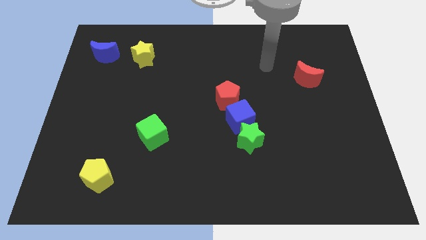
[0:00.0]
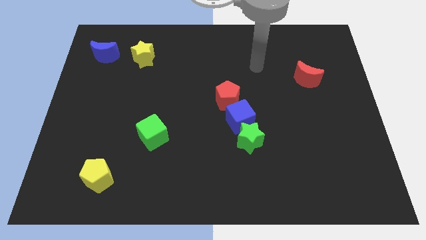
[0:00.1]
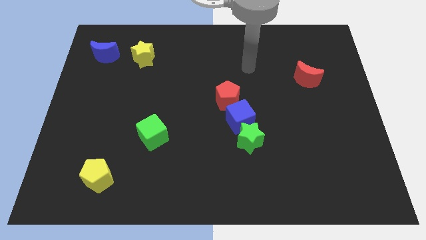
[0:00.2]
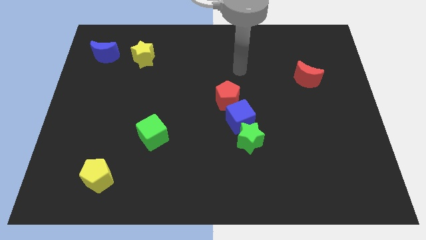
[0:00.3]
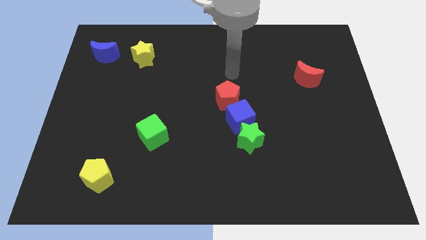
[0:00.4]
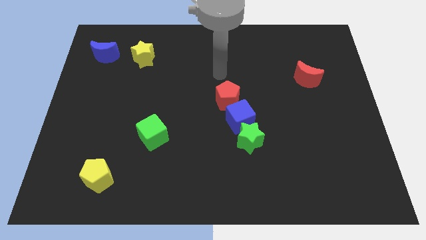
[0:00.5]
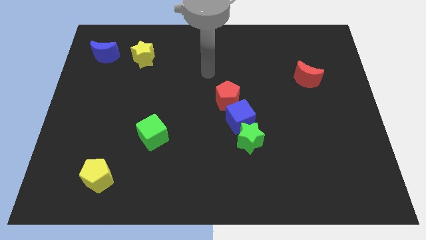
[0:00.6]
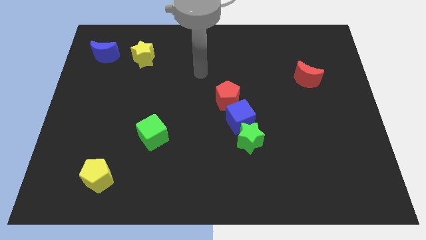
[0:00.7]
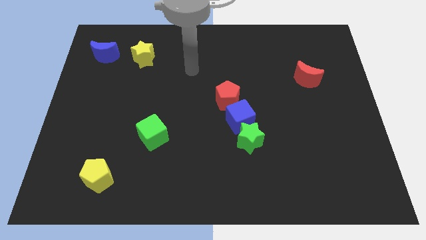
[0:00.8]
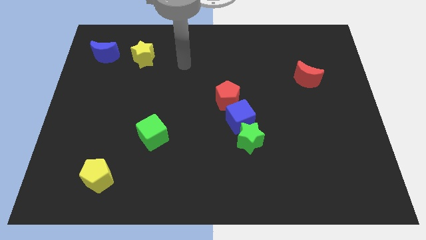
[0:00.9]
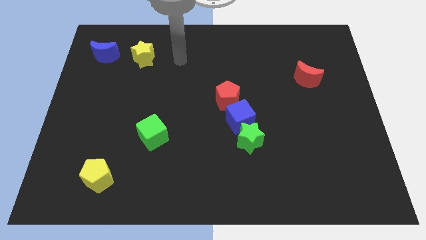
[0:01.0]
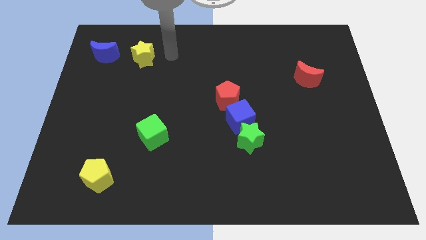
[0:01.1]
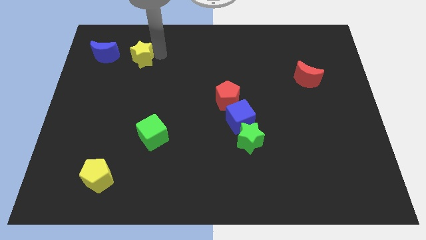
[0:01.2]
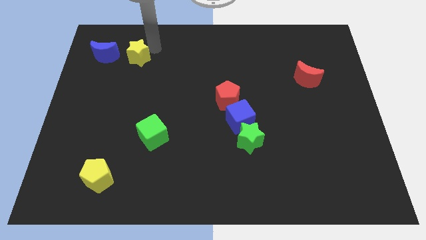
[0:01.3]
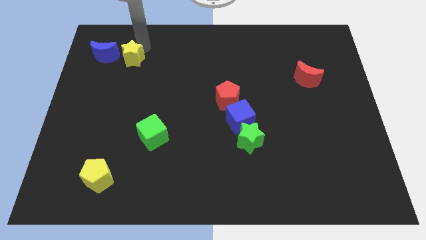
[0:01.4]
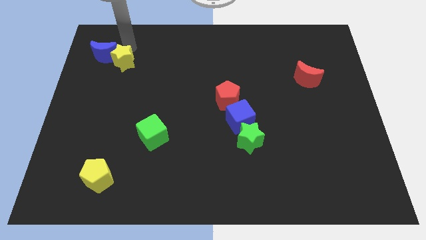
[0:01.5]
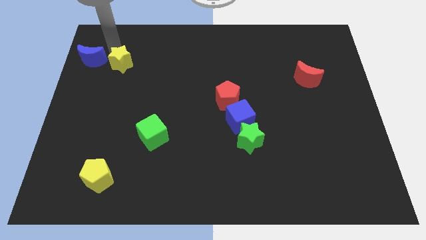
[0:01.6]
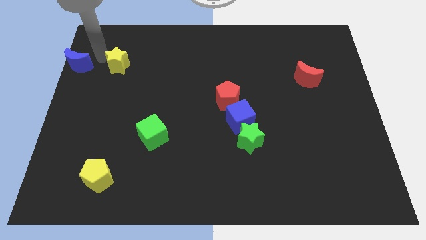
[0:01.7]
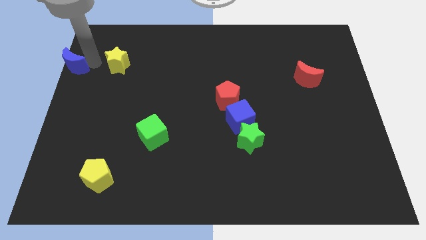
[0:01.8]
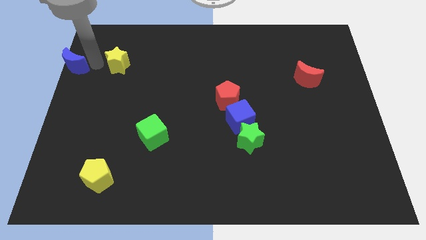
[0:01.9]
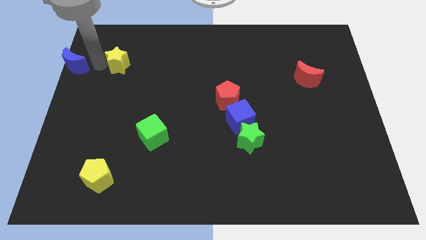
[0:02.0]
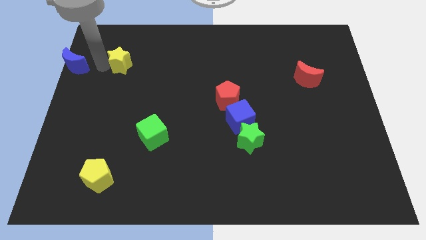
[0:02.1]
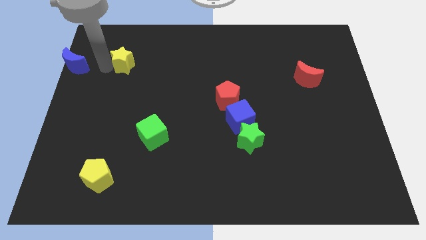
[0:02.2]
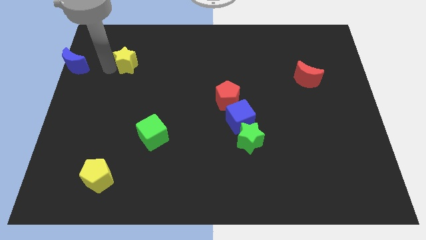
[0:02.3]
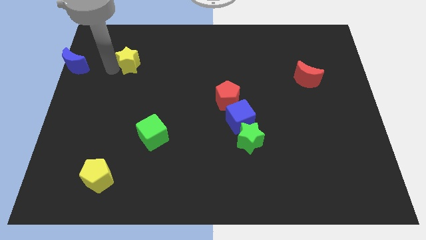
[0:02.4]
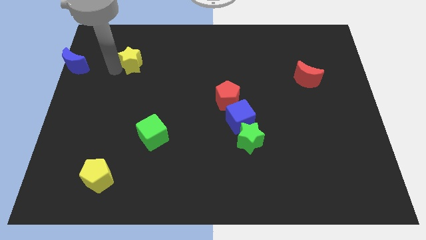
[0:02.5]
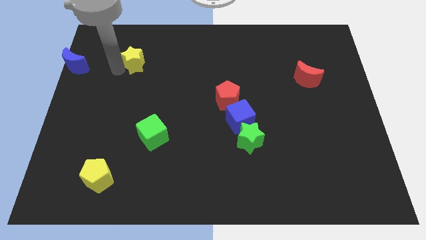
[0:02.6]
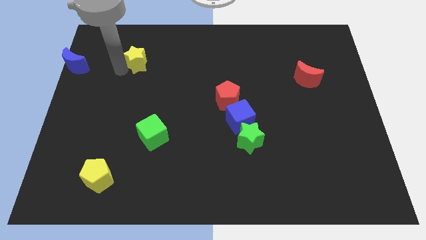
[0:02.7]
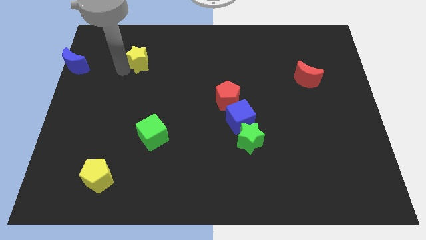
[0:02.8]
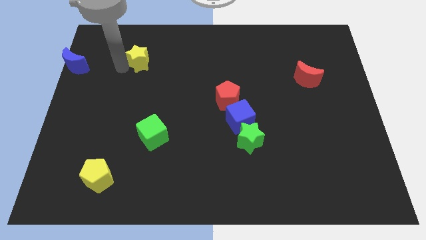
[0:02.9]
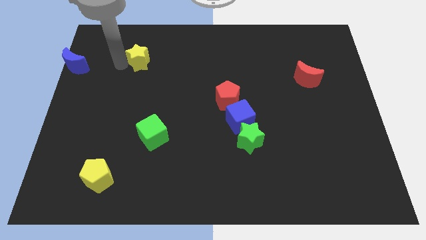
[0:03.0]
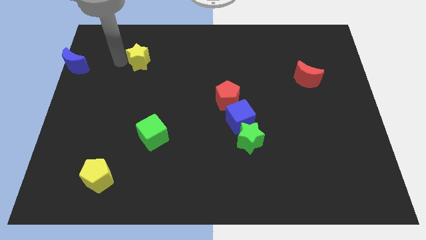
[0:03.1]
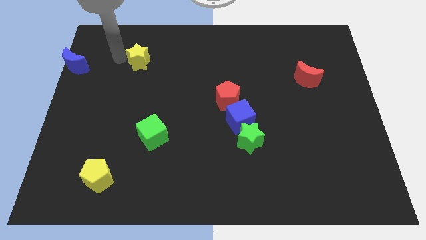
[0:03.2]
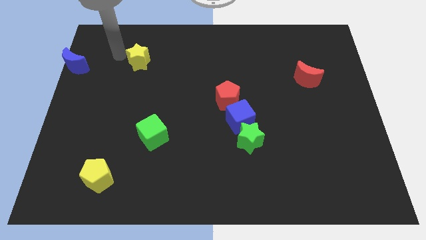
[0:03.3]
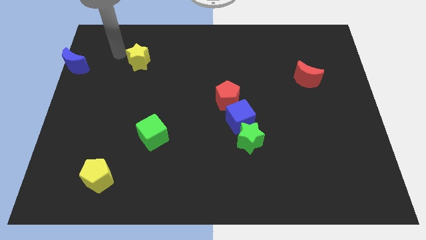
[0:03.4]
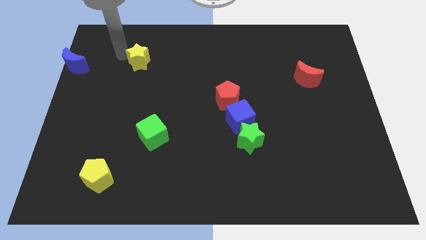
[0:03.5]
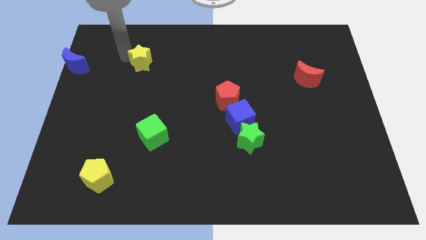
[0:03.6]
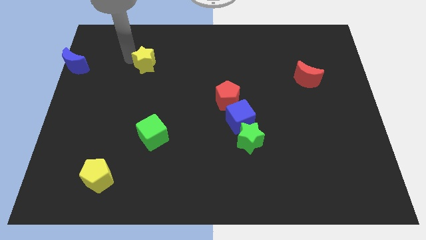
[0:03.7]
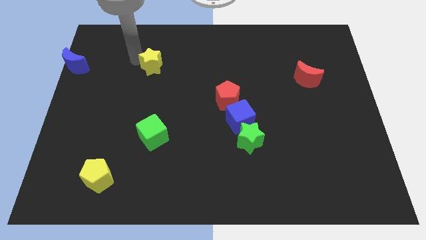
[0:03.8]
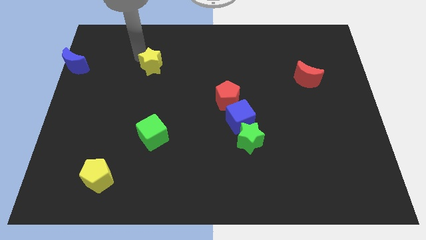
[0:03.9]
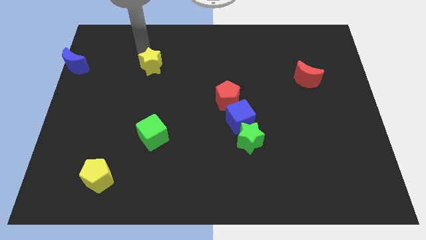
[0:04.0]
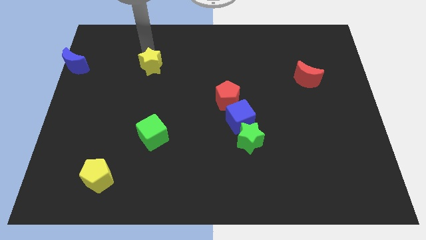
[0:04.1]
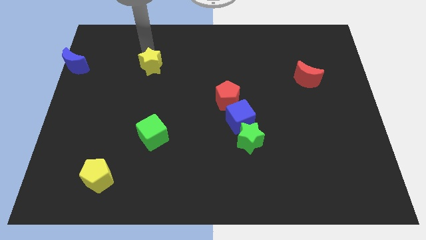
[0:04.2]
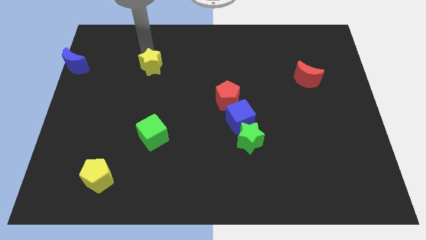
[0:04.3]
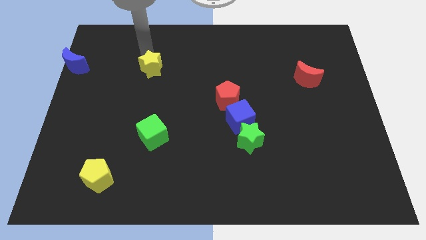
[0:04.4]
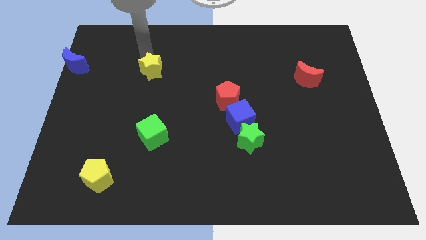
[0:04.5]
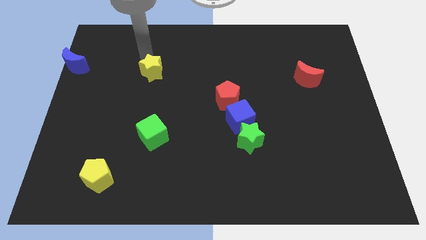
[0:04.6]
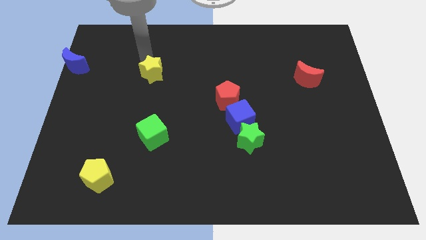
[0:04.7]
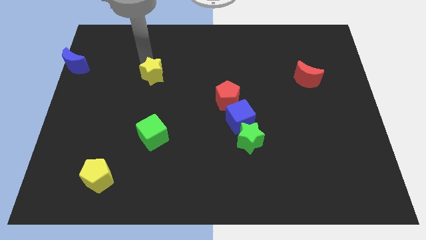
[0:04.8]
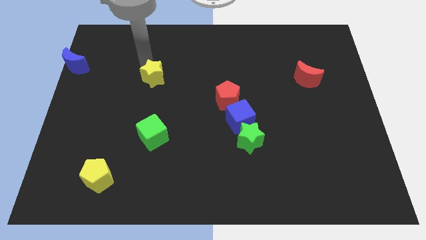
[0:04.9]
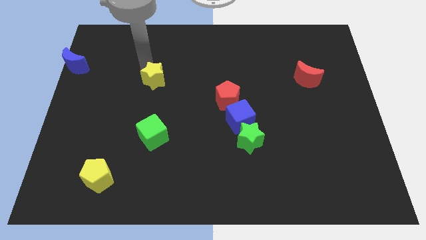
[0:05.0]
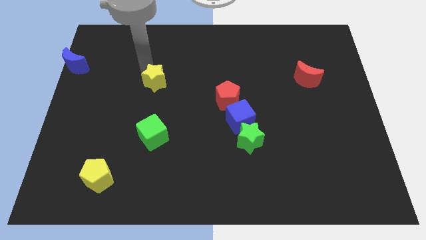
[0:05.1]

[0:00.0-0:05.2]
move the yellow star to the top side of the green cube

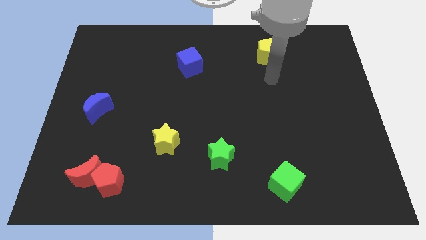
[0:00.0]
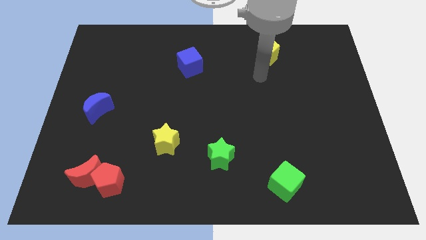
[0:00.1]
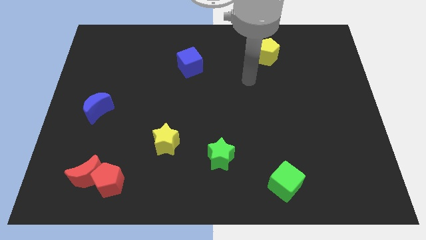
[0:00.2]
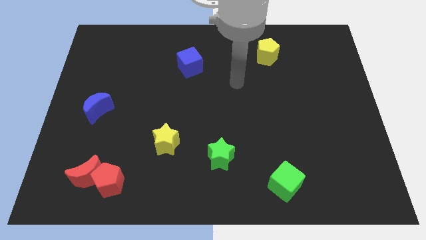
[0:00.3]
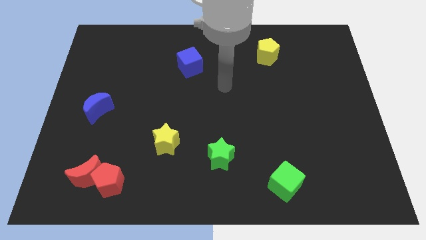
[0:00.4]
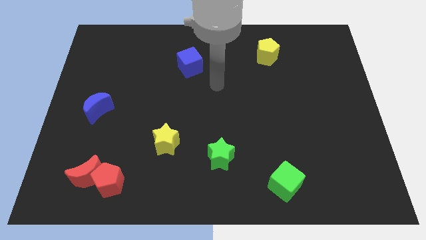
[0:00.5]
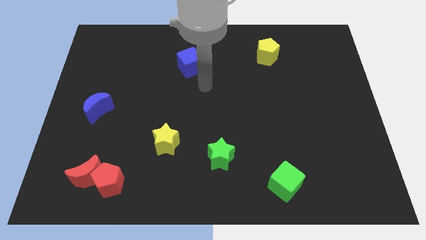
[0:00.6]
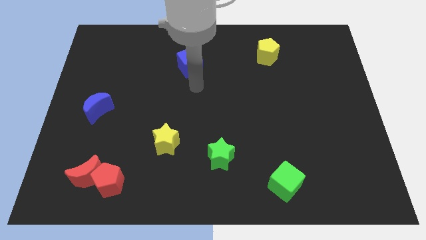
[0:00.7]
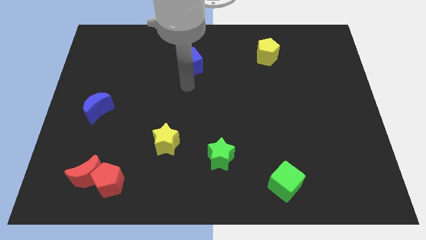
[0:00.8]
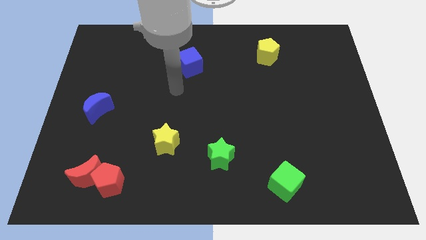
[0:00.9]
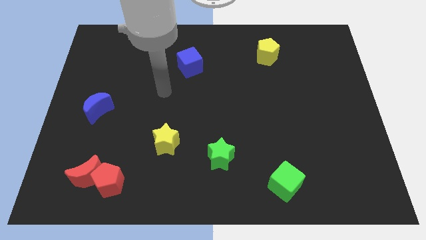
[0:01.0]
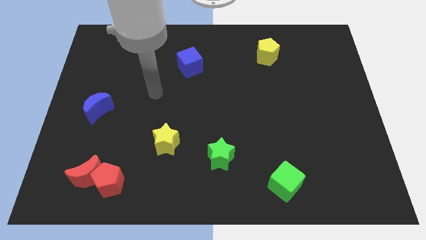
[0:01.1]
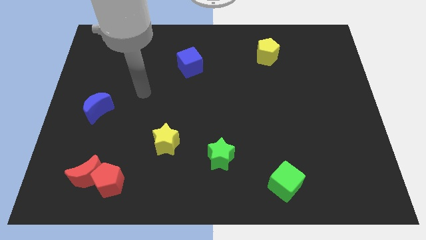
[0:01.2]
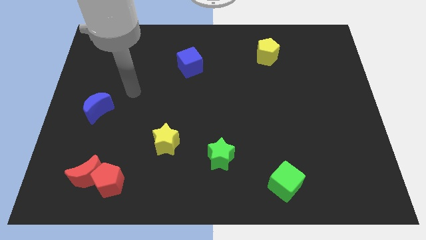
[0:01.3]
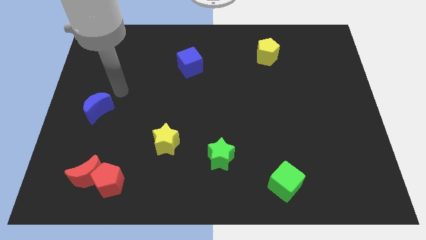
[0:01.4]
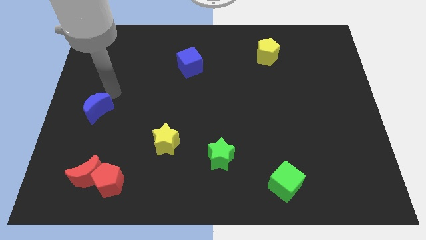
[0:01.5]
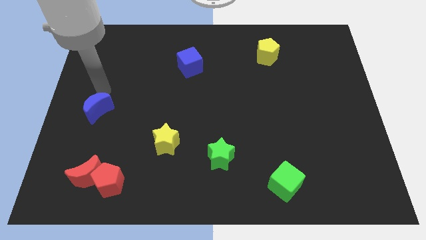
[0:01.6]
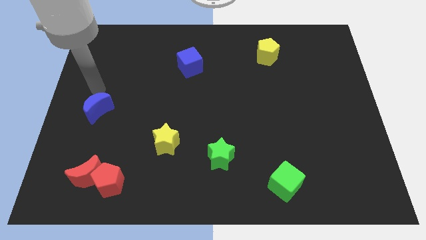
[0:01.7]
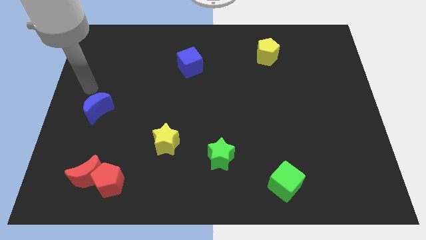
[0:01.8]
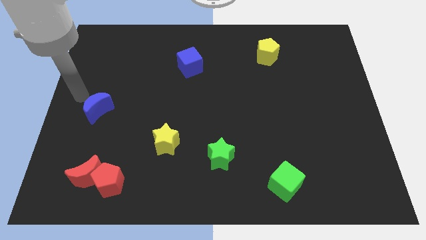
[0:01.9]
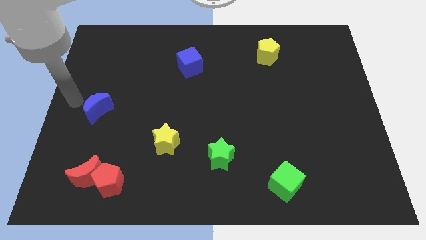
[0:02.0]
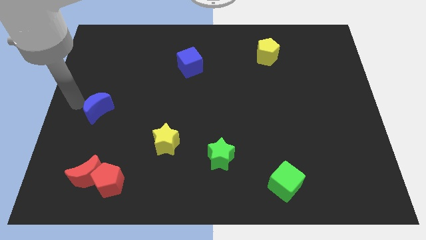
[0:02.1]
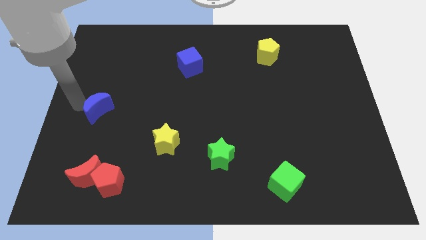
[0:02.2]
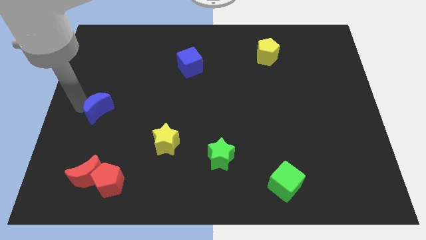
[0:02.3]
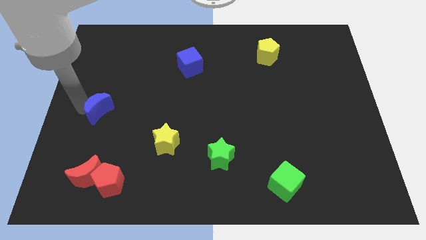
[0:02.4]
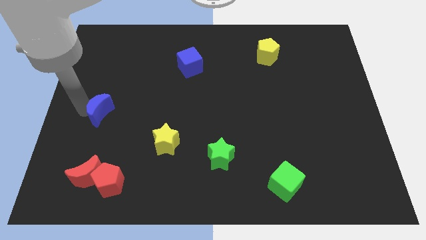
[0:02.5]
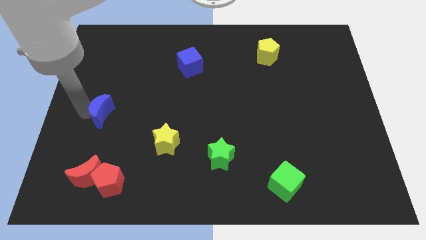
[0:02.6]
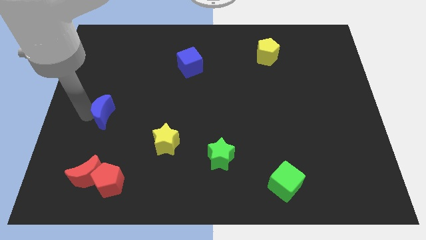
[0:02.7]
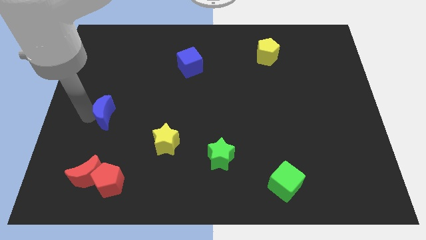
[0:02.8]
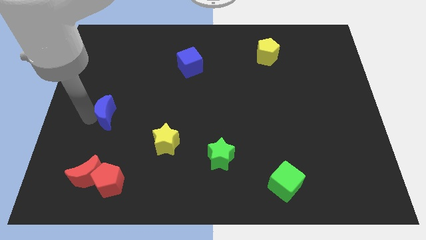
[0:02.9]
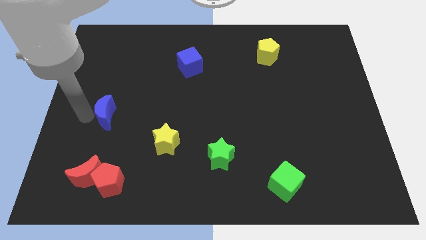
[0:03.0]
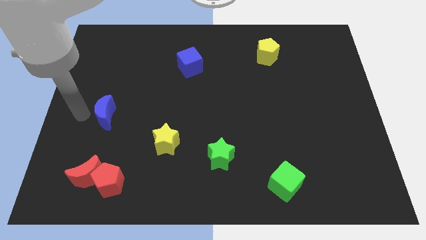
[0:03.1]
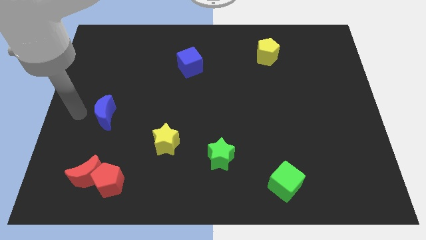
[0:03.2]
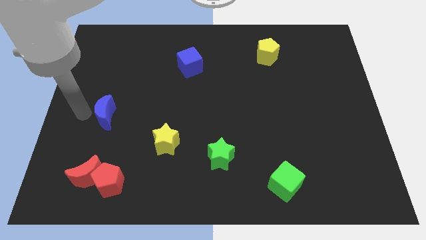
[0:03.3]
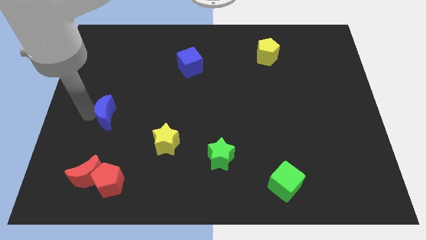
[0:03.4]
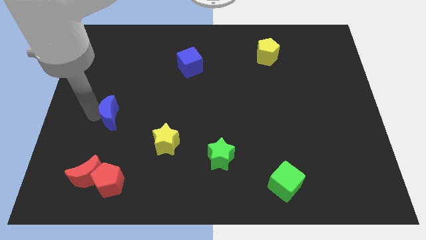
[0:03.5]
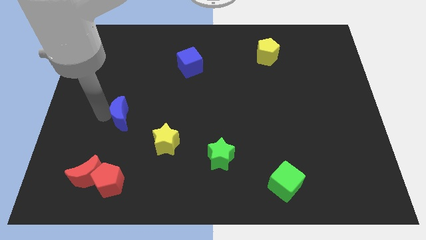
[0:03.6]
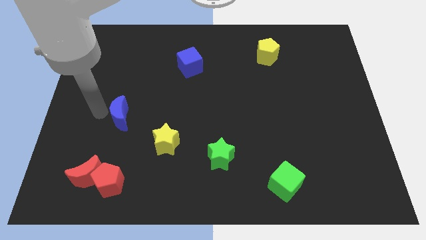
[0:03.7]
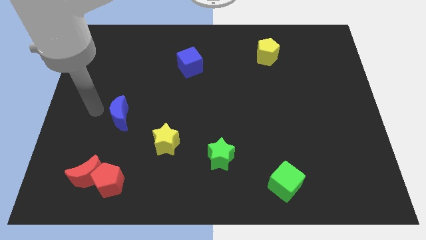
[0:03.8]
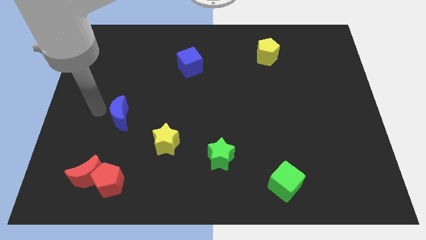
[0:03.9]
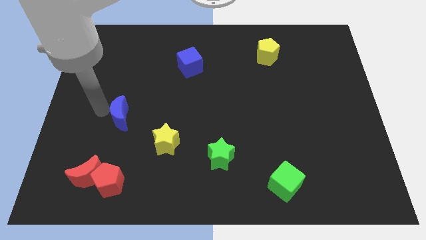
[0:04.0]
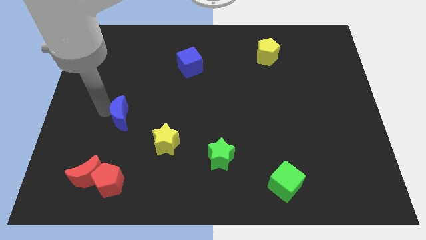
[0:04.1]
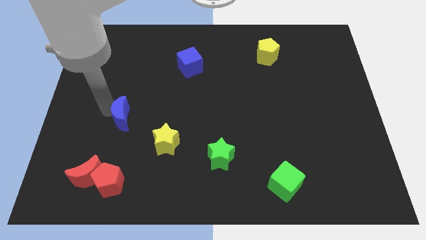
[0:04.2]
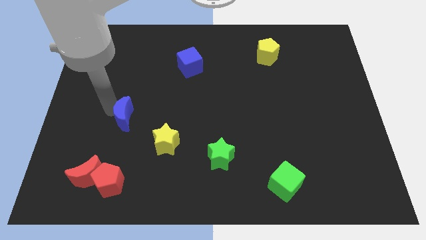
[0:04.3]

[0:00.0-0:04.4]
slide the blue moon to the top left side of the yellow star
